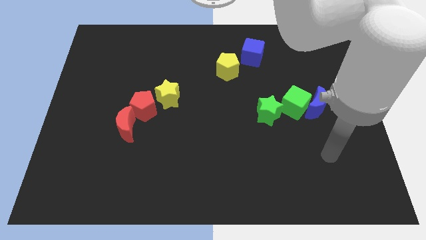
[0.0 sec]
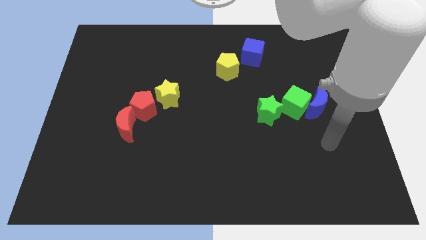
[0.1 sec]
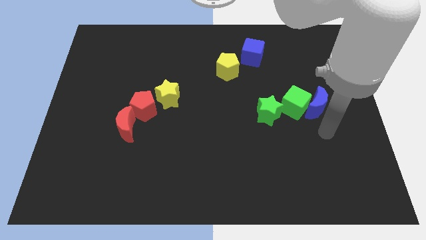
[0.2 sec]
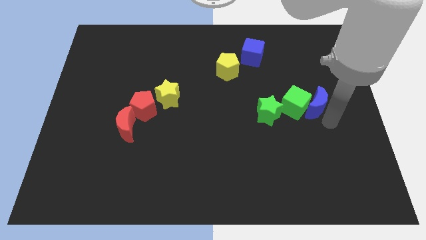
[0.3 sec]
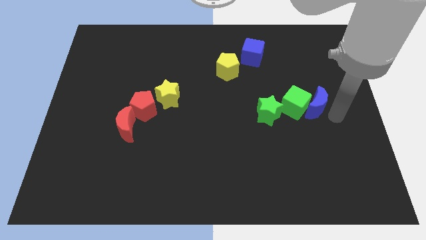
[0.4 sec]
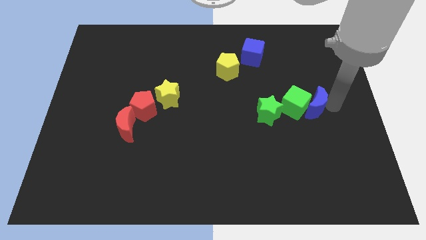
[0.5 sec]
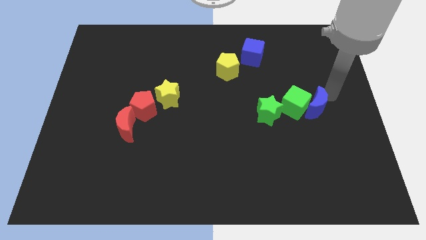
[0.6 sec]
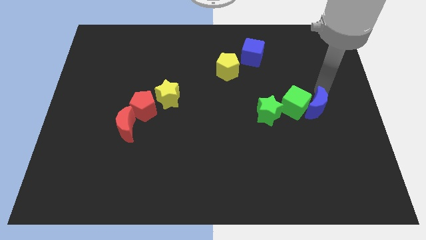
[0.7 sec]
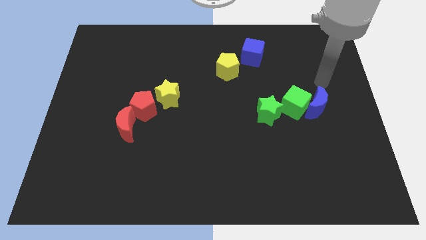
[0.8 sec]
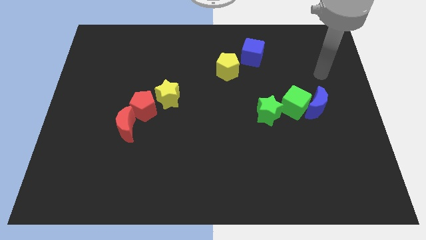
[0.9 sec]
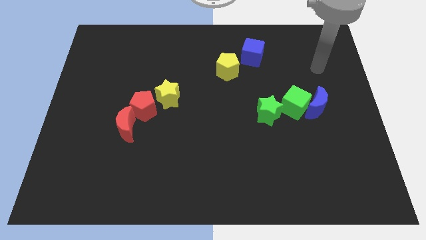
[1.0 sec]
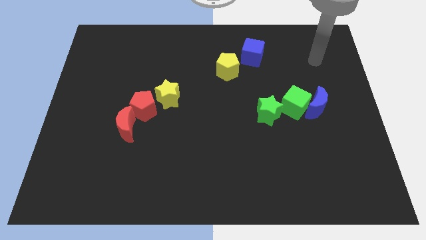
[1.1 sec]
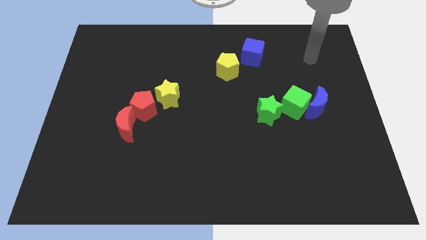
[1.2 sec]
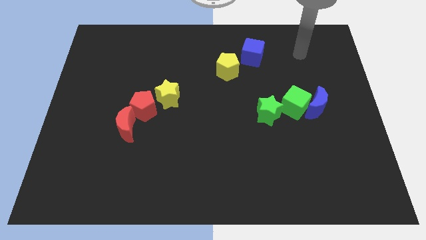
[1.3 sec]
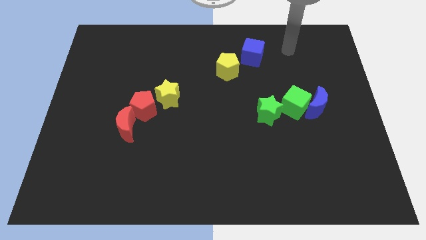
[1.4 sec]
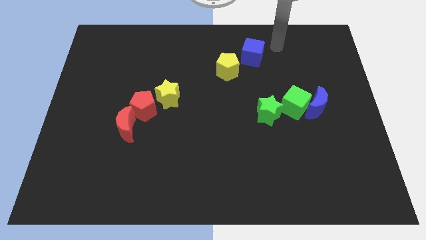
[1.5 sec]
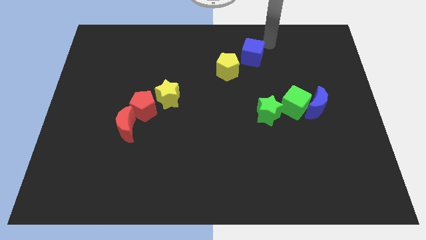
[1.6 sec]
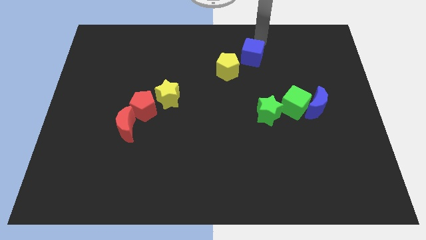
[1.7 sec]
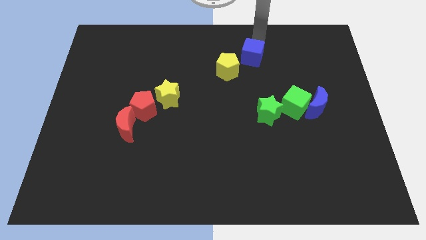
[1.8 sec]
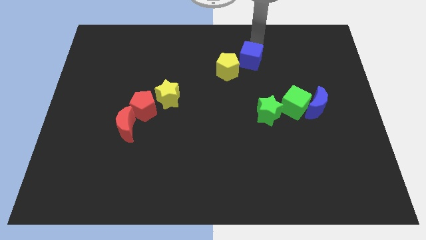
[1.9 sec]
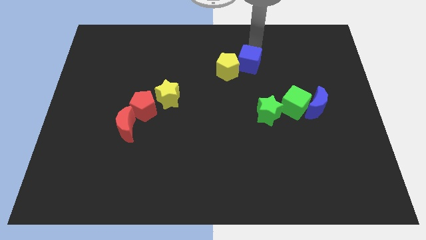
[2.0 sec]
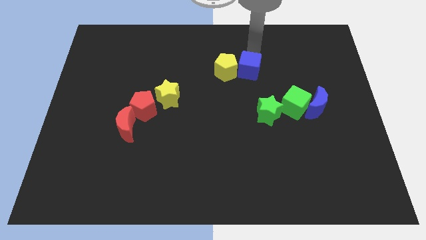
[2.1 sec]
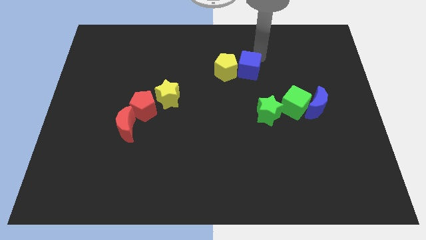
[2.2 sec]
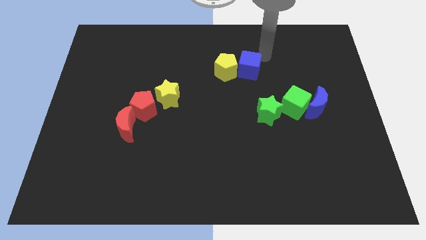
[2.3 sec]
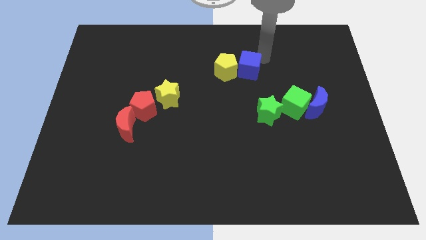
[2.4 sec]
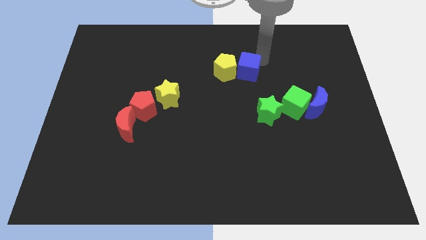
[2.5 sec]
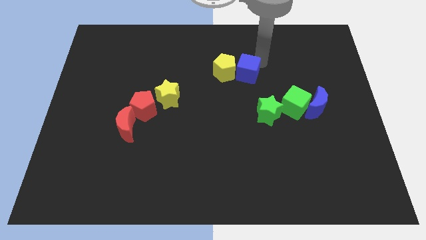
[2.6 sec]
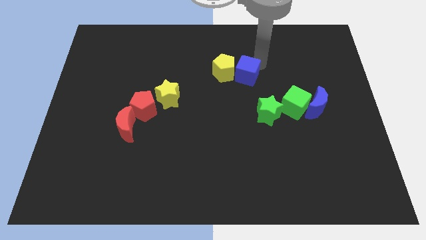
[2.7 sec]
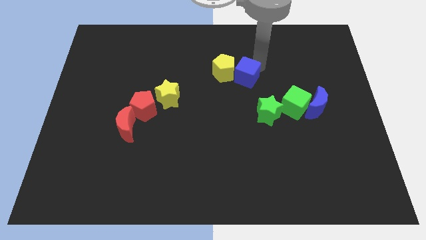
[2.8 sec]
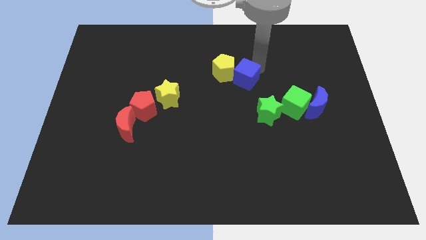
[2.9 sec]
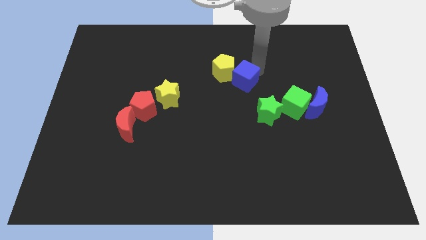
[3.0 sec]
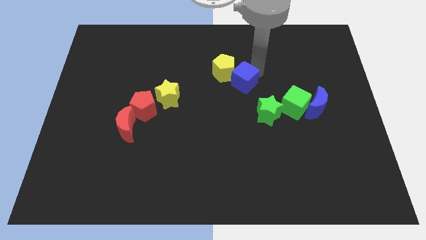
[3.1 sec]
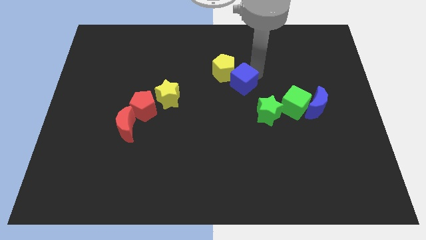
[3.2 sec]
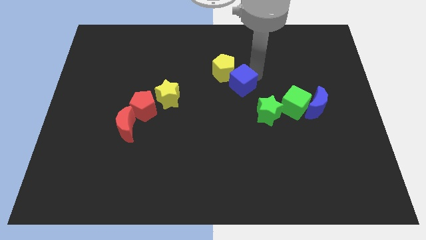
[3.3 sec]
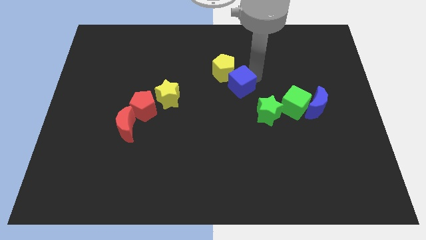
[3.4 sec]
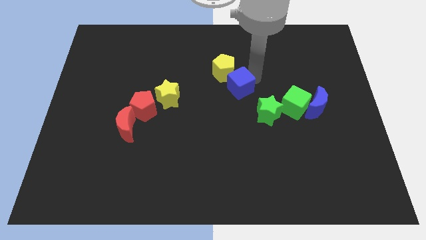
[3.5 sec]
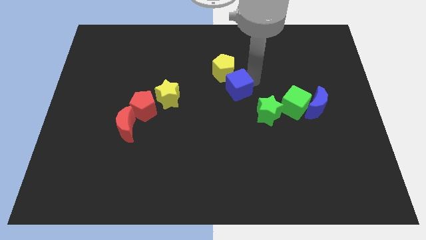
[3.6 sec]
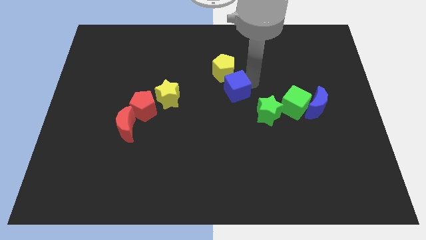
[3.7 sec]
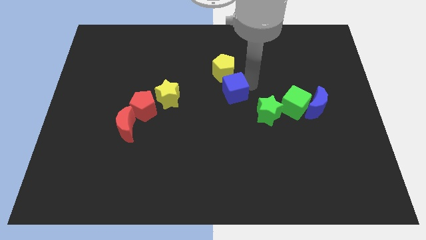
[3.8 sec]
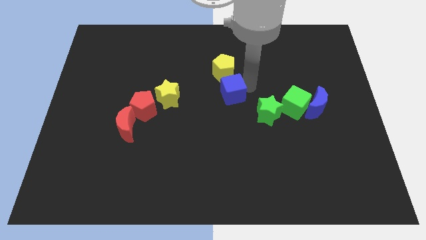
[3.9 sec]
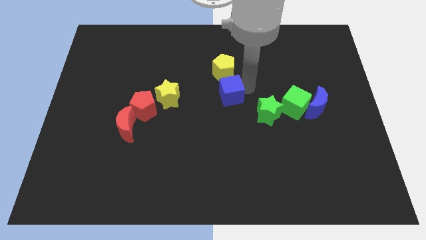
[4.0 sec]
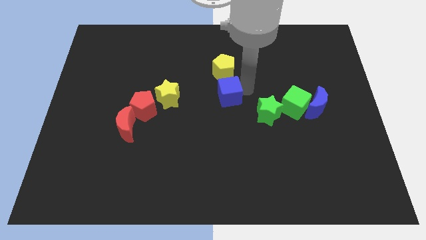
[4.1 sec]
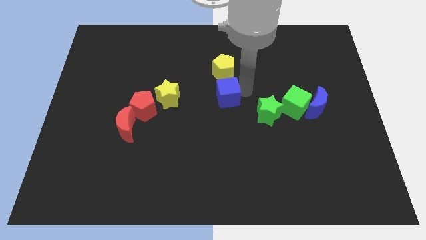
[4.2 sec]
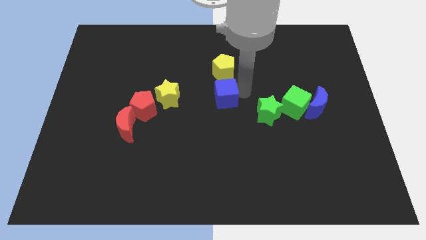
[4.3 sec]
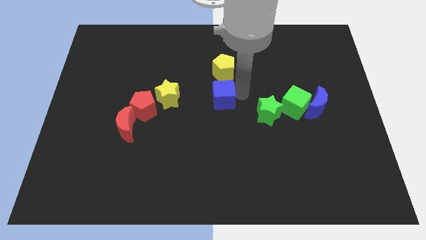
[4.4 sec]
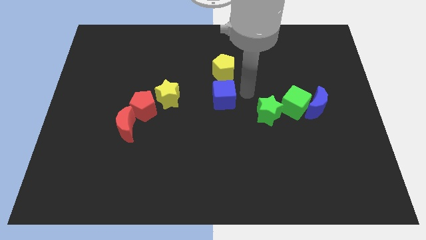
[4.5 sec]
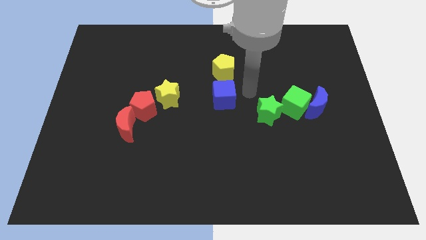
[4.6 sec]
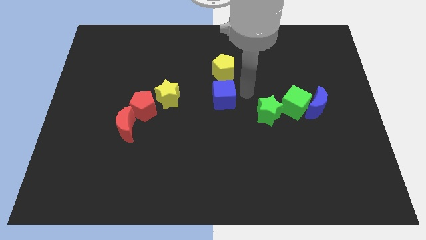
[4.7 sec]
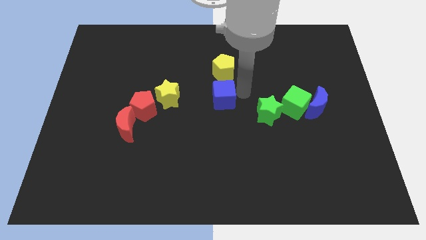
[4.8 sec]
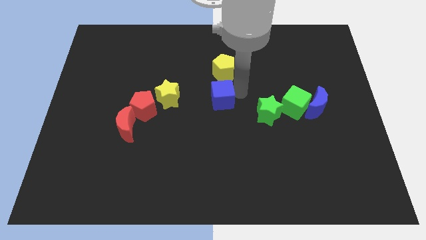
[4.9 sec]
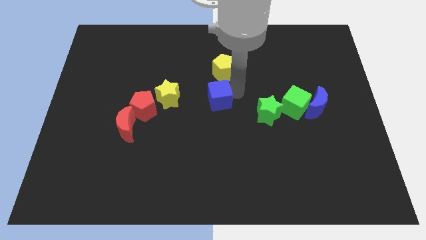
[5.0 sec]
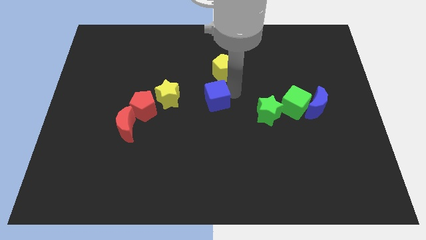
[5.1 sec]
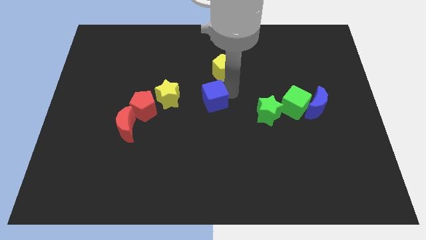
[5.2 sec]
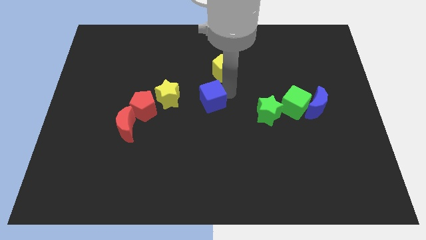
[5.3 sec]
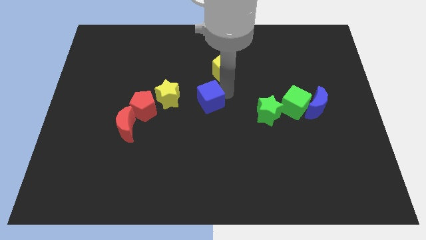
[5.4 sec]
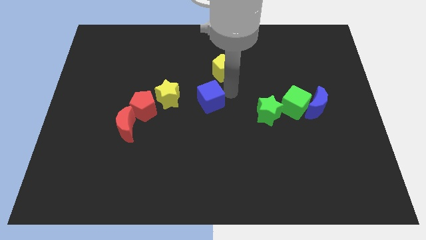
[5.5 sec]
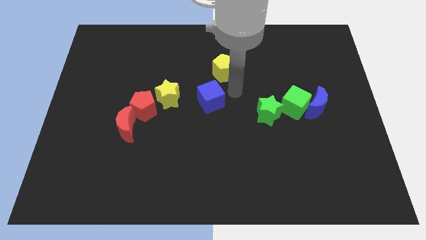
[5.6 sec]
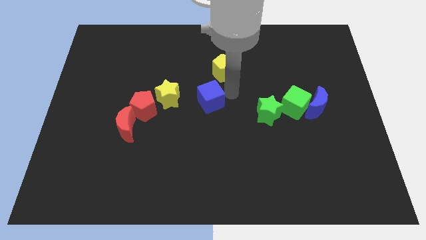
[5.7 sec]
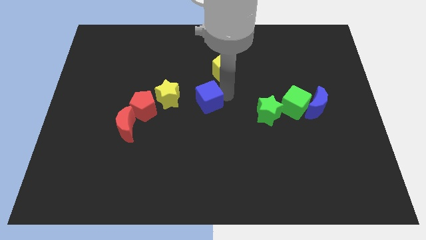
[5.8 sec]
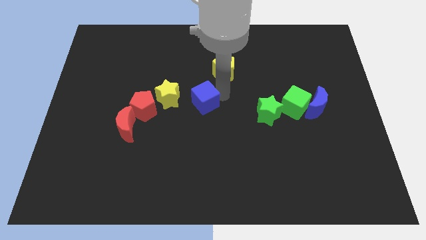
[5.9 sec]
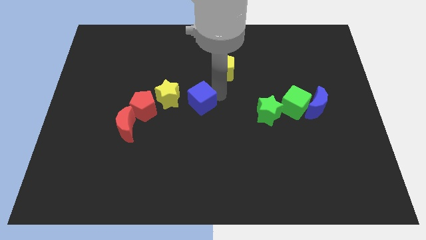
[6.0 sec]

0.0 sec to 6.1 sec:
slide the blue cube diagonally downwards and left

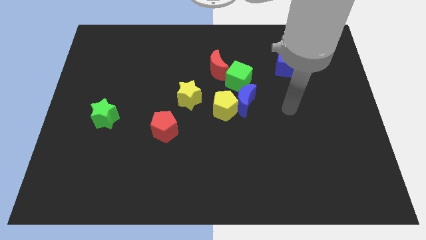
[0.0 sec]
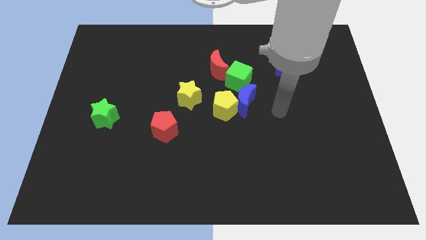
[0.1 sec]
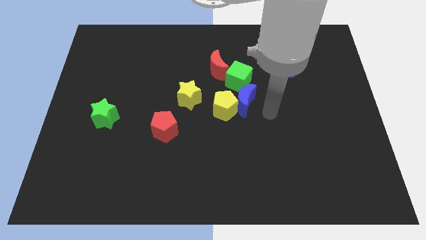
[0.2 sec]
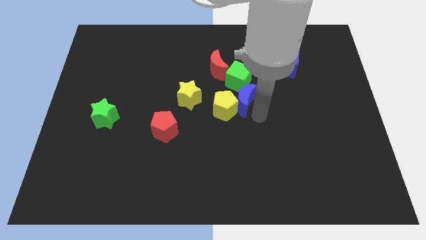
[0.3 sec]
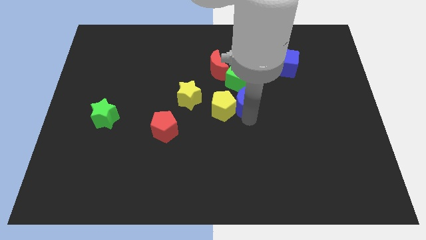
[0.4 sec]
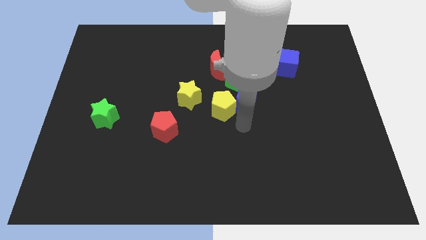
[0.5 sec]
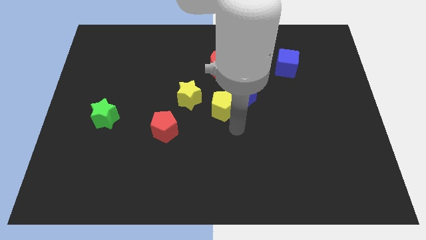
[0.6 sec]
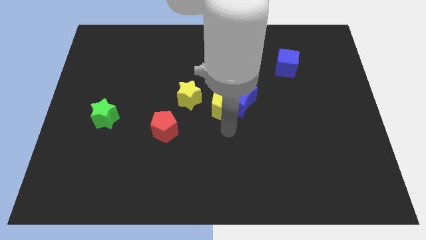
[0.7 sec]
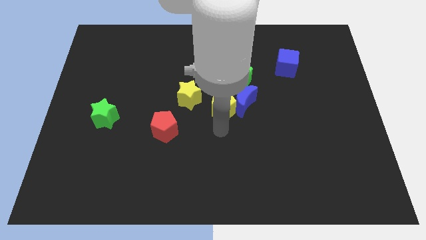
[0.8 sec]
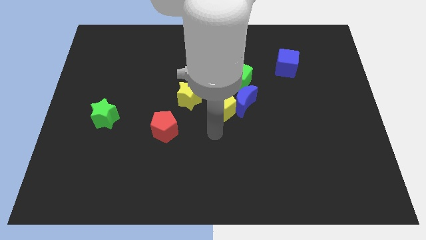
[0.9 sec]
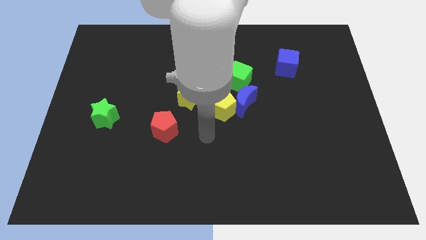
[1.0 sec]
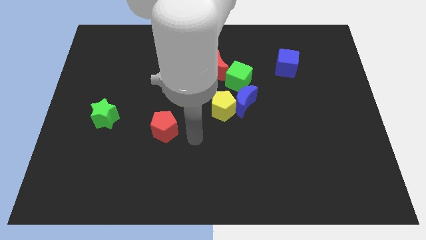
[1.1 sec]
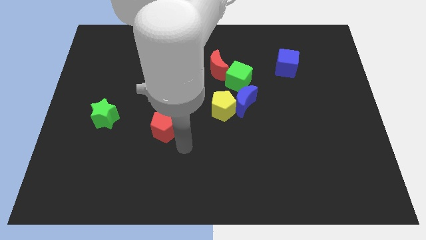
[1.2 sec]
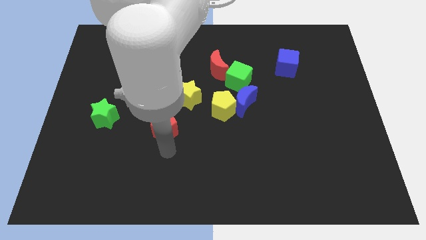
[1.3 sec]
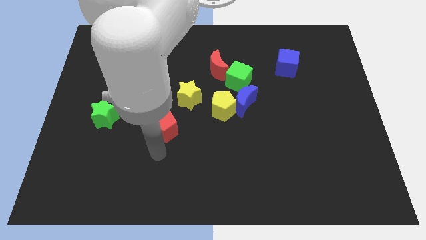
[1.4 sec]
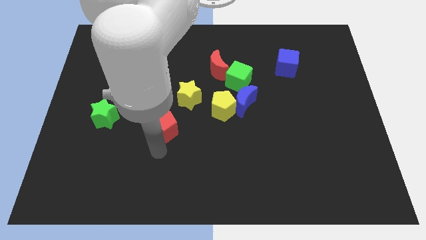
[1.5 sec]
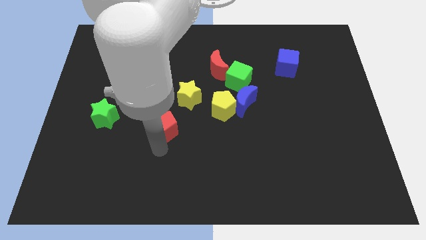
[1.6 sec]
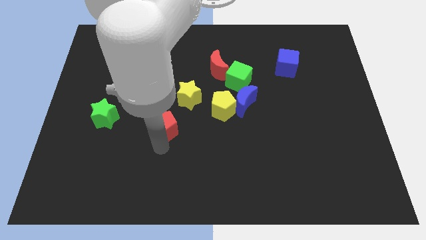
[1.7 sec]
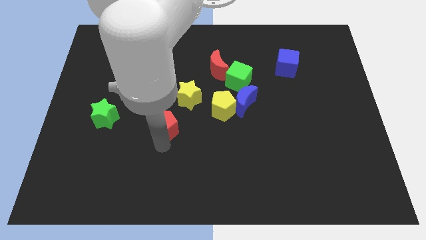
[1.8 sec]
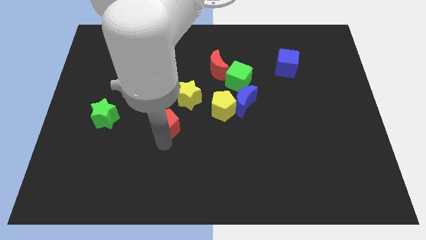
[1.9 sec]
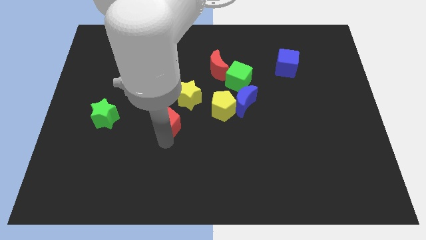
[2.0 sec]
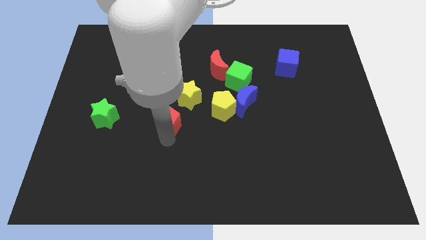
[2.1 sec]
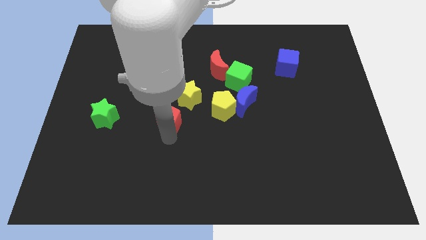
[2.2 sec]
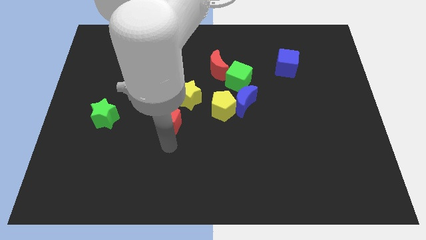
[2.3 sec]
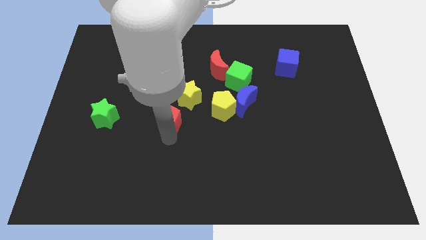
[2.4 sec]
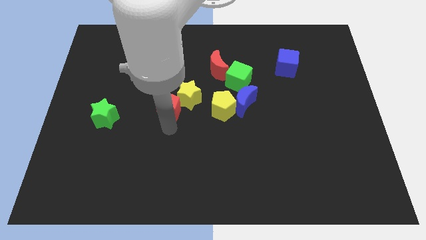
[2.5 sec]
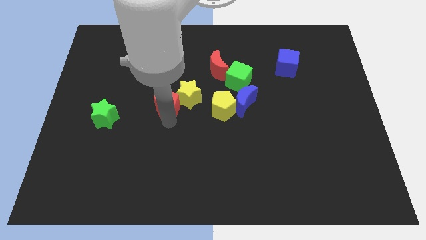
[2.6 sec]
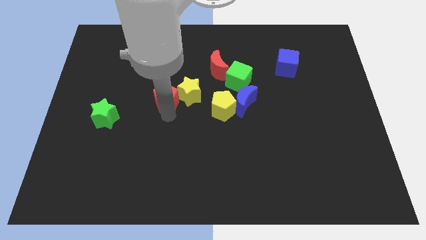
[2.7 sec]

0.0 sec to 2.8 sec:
move the red pentagon upwards a little bit
